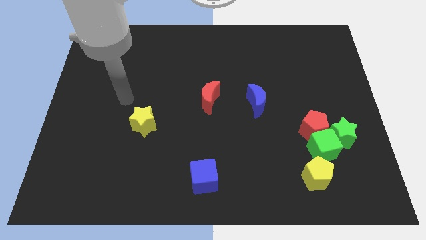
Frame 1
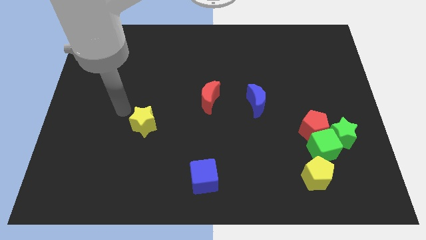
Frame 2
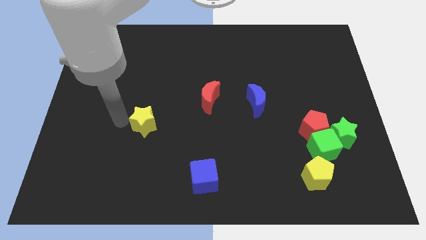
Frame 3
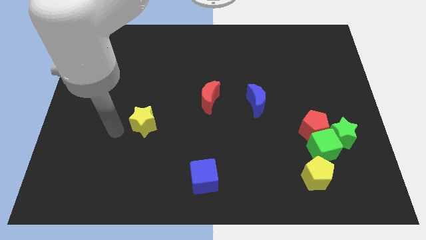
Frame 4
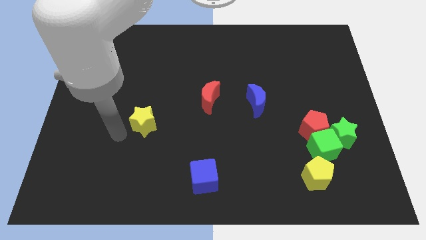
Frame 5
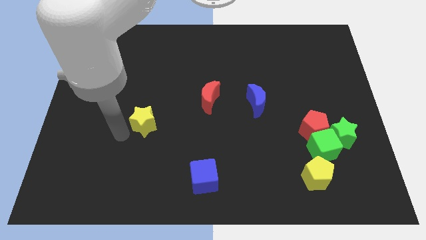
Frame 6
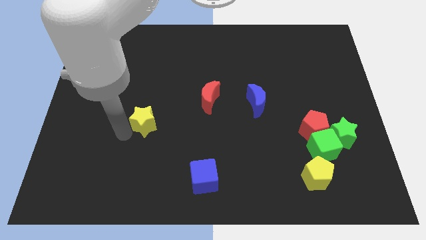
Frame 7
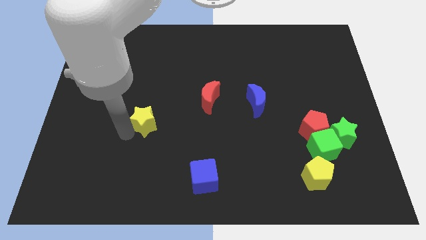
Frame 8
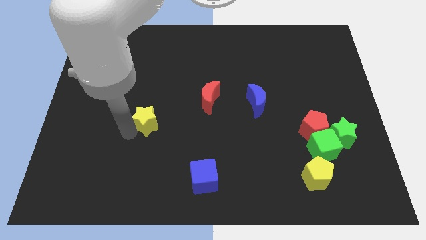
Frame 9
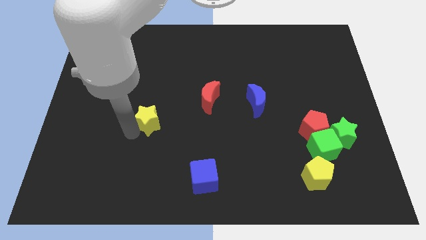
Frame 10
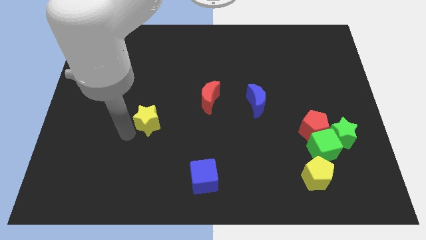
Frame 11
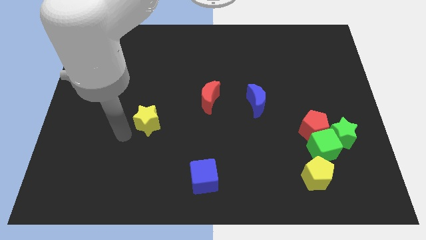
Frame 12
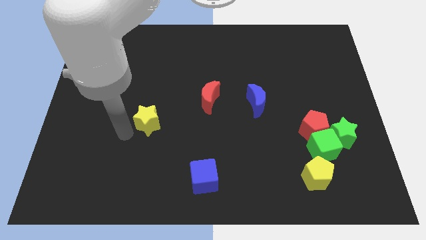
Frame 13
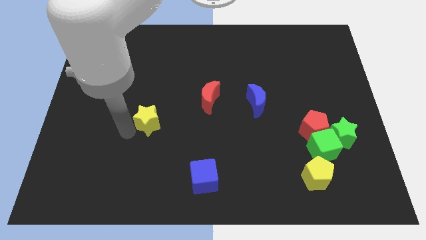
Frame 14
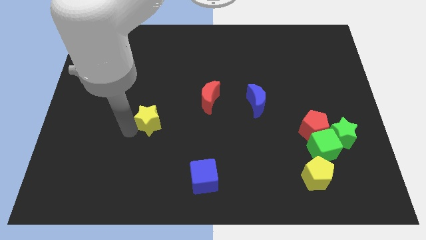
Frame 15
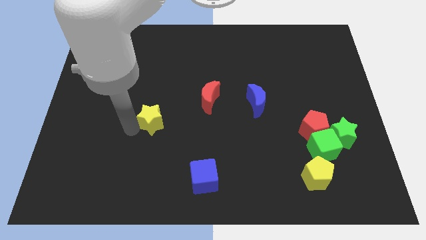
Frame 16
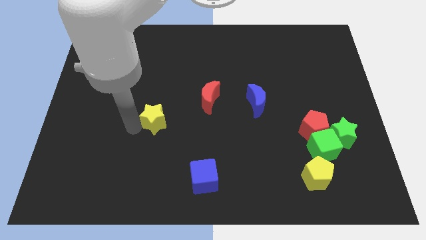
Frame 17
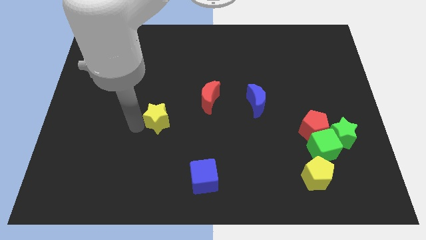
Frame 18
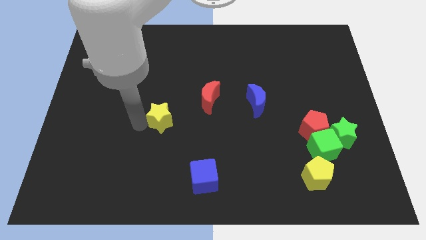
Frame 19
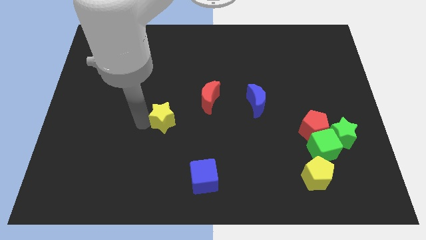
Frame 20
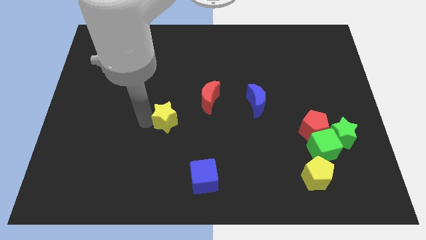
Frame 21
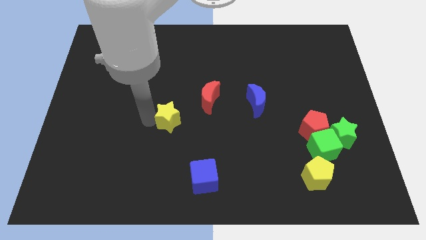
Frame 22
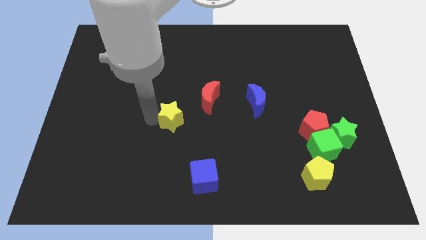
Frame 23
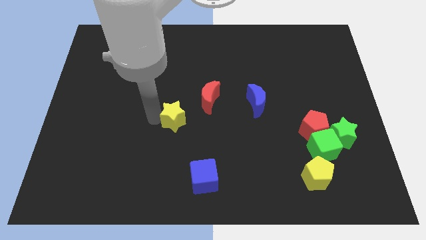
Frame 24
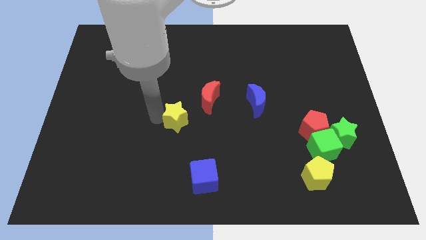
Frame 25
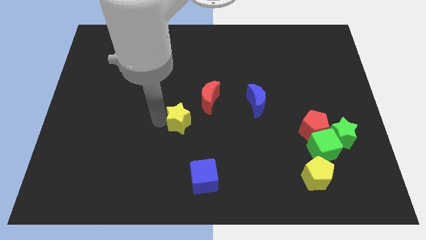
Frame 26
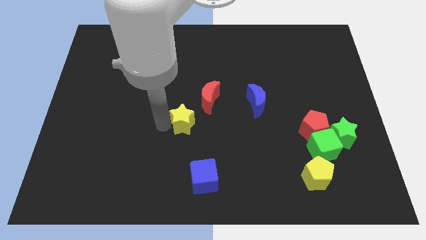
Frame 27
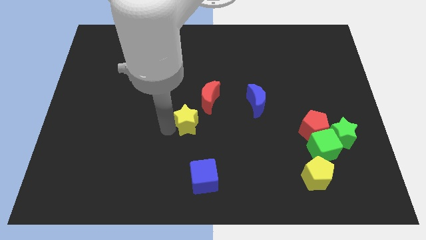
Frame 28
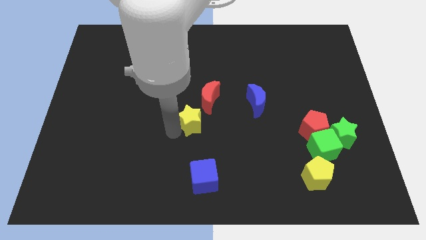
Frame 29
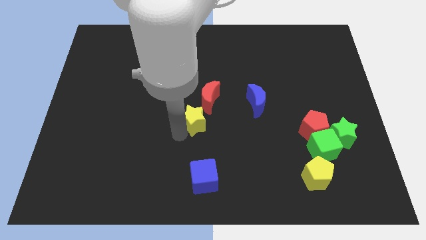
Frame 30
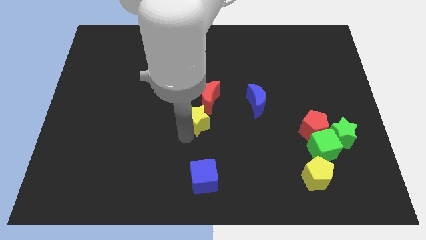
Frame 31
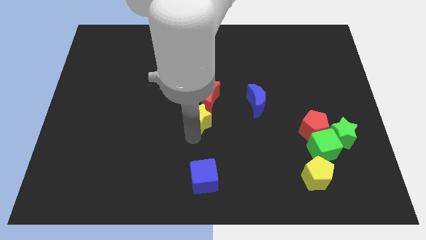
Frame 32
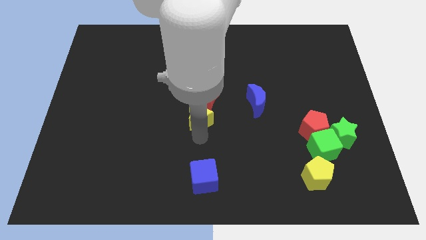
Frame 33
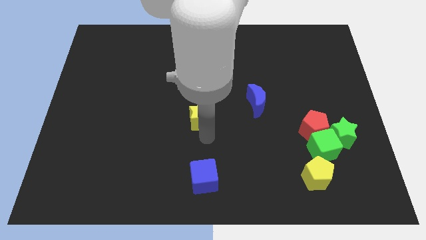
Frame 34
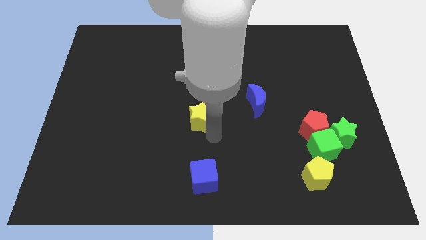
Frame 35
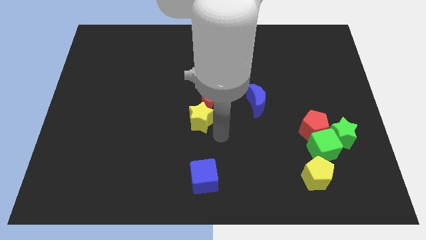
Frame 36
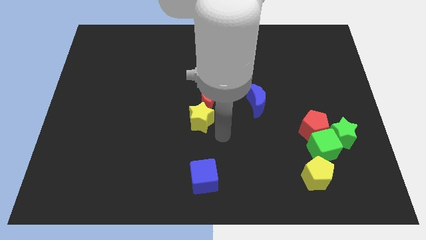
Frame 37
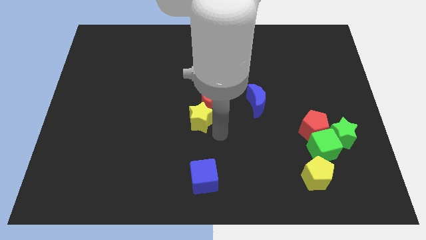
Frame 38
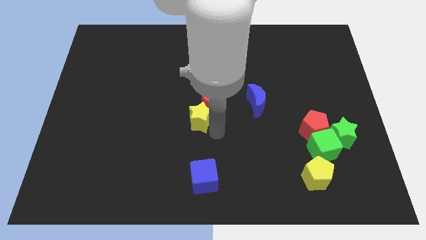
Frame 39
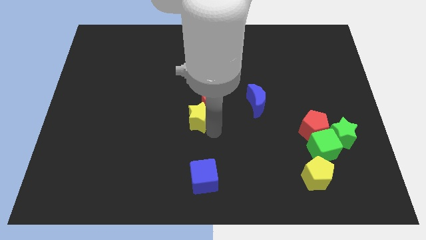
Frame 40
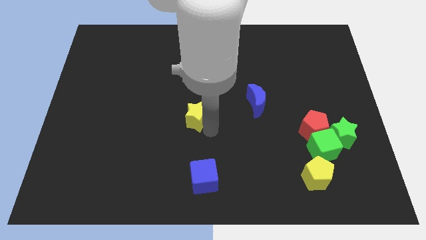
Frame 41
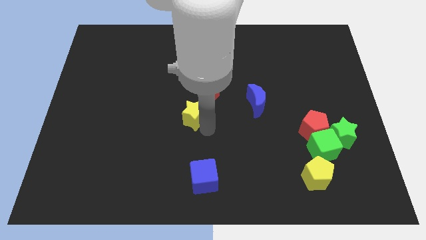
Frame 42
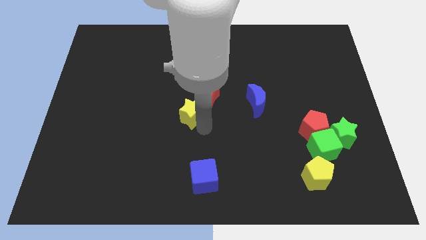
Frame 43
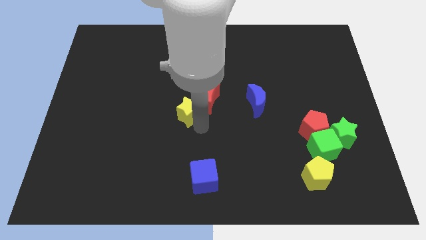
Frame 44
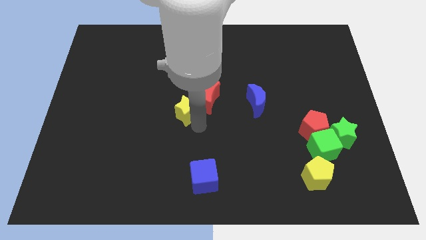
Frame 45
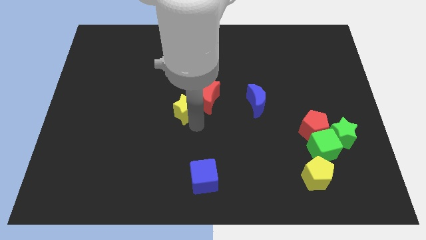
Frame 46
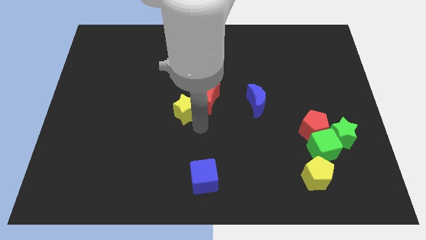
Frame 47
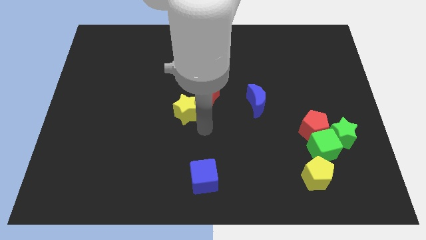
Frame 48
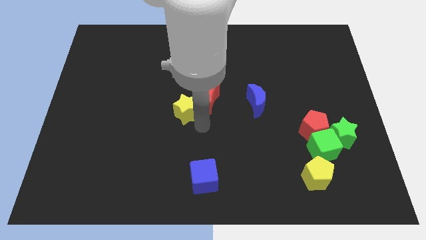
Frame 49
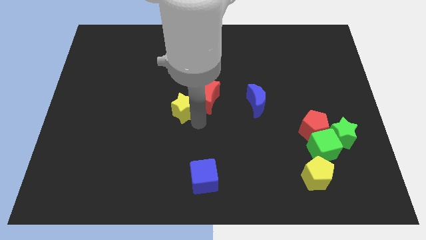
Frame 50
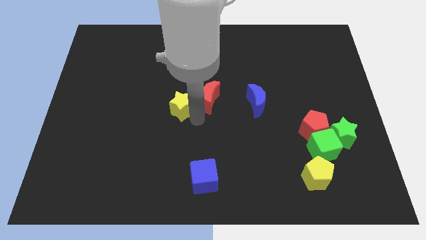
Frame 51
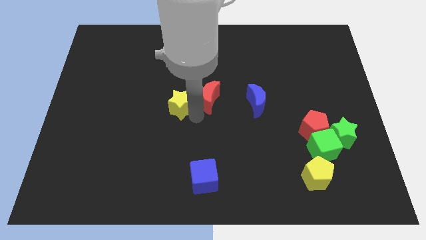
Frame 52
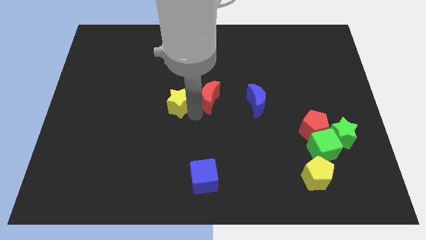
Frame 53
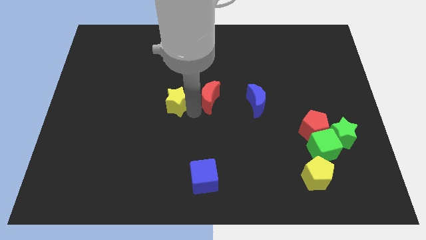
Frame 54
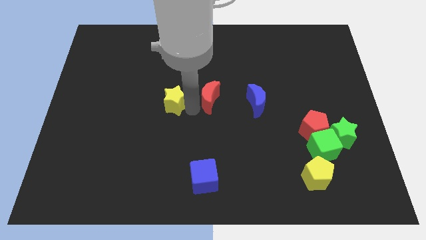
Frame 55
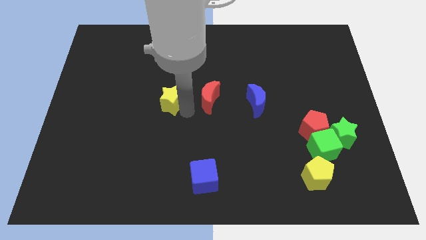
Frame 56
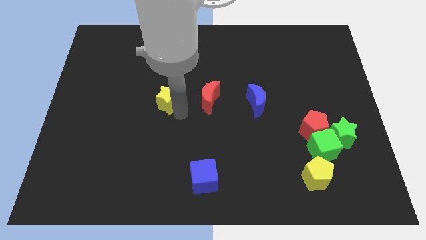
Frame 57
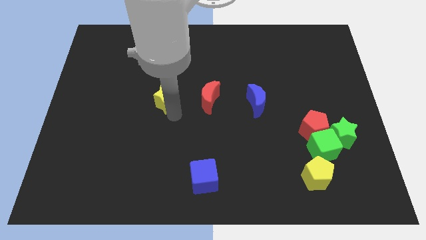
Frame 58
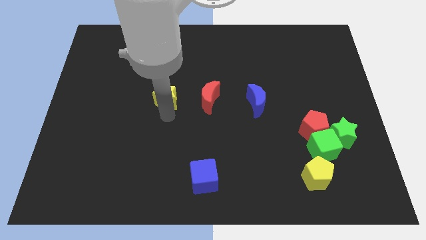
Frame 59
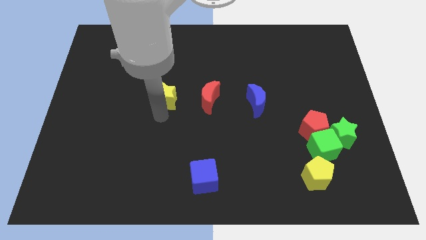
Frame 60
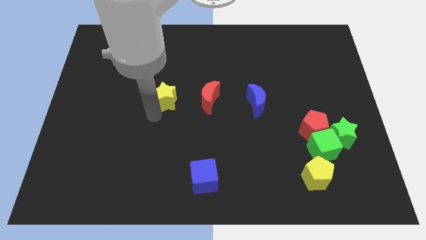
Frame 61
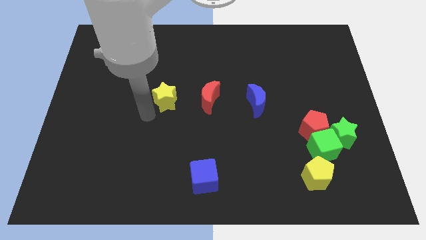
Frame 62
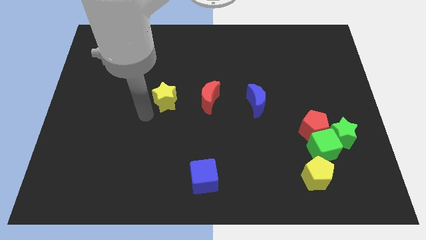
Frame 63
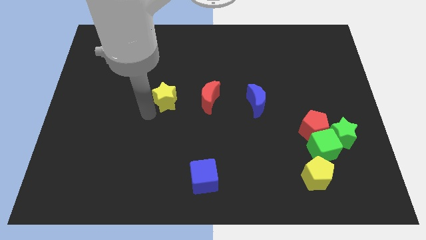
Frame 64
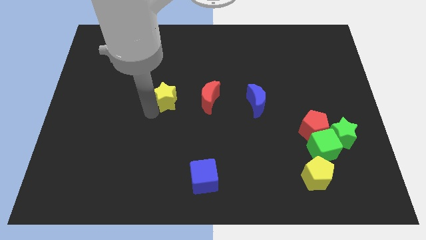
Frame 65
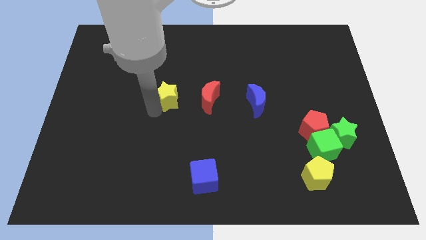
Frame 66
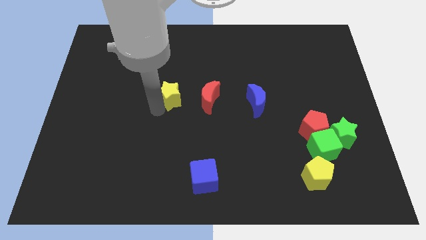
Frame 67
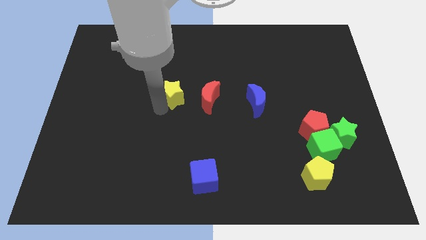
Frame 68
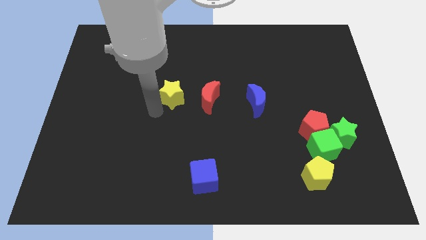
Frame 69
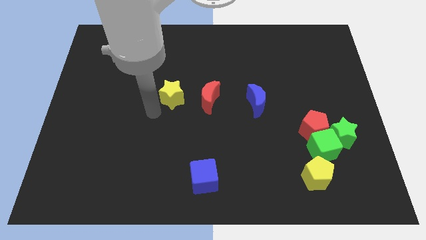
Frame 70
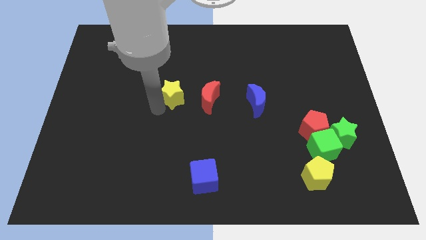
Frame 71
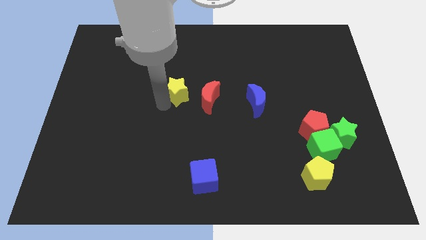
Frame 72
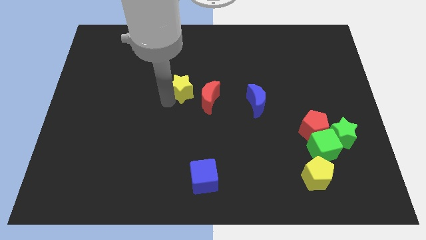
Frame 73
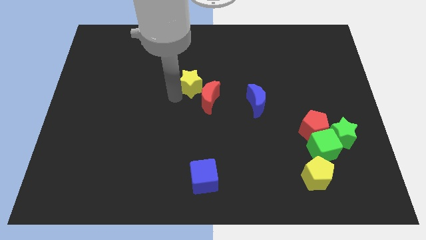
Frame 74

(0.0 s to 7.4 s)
put the yellow star above the red moon

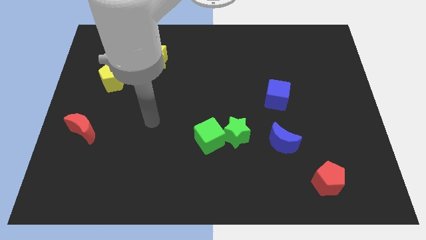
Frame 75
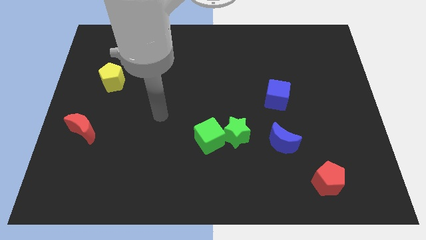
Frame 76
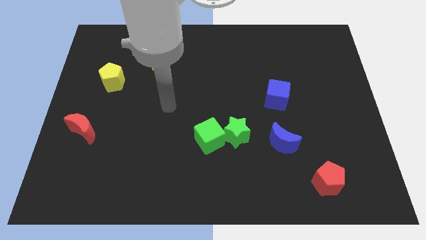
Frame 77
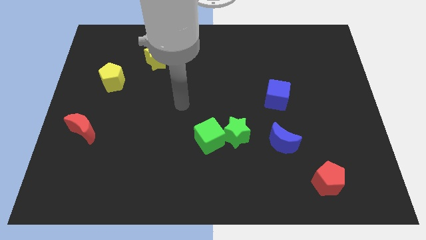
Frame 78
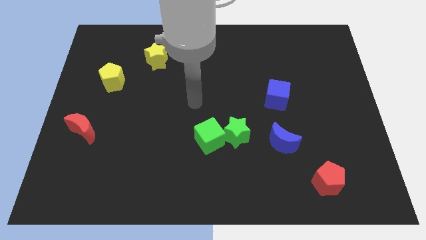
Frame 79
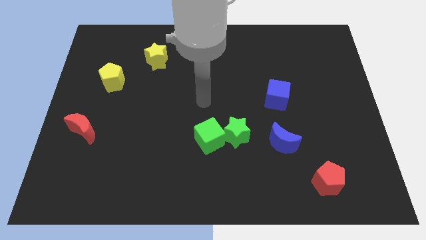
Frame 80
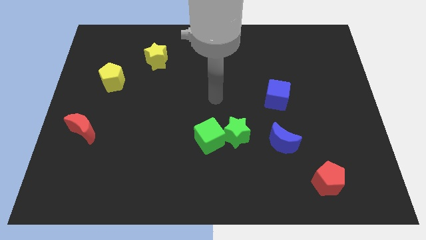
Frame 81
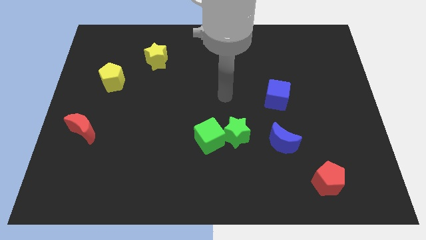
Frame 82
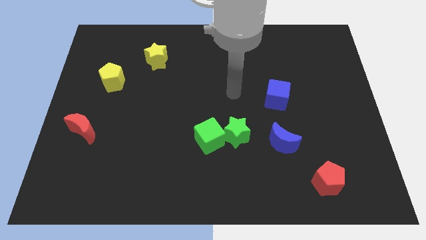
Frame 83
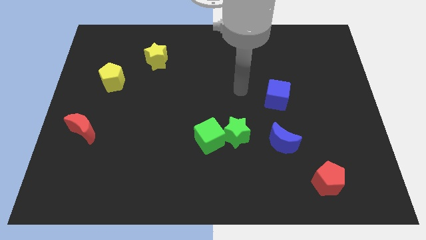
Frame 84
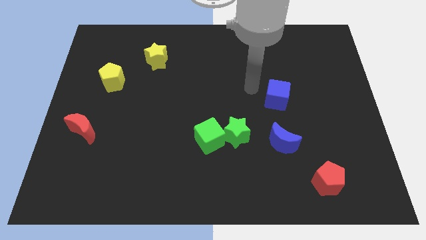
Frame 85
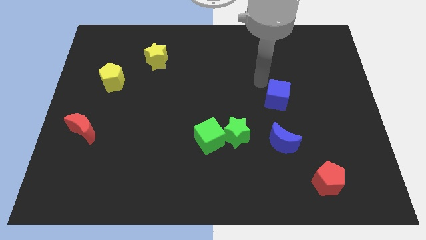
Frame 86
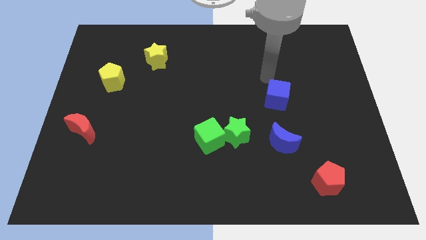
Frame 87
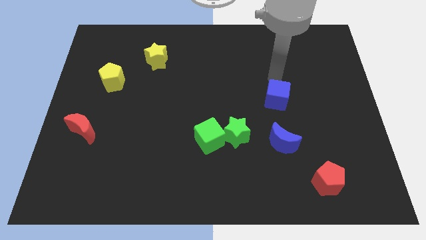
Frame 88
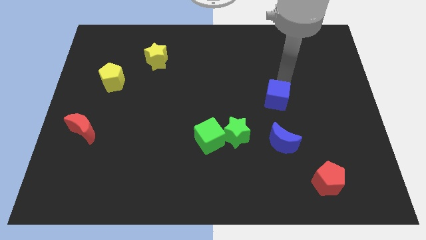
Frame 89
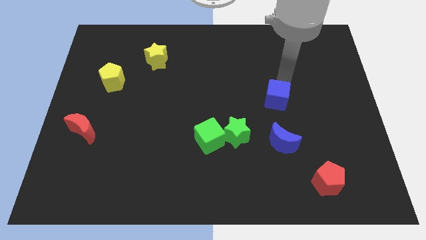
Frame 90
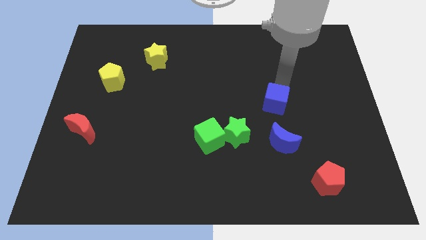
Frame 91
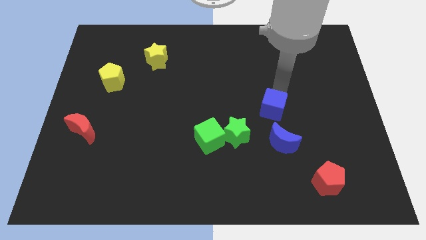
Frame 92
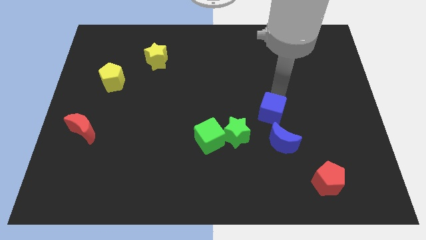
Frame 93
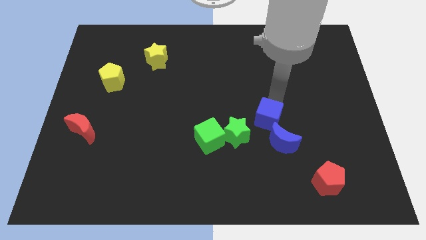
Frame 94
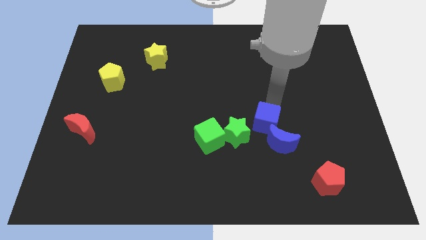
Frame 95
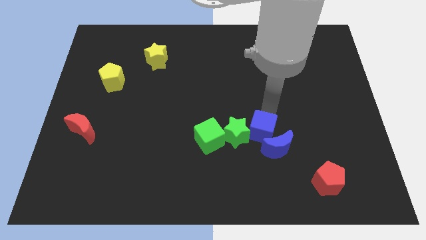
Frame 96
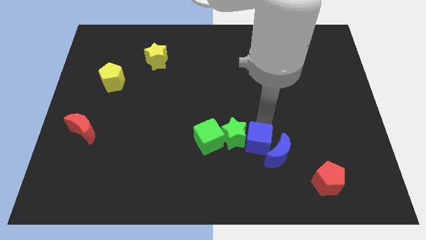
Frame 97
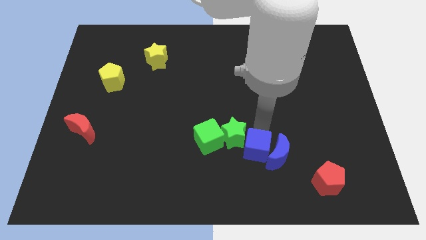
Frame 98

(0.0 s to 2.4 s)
push the blue cube to the bottom left side of the blue moon
